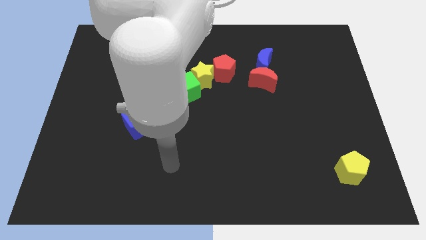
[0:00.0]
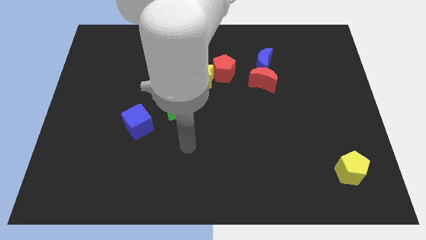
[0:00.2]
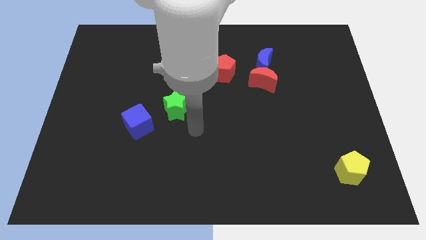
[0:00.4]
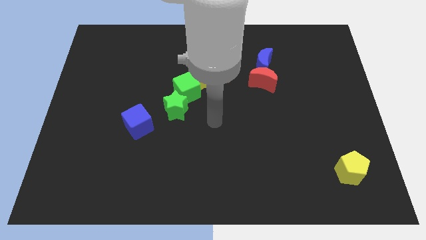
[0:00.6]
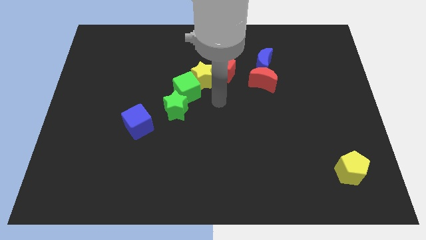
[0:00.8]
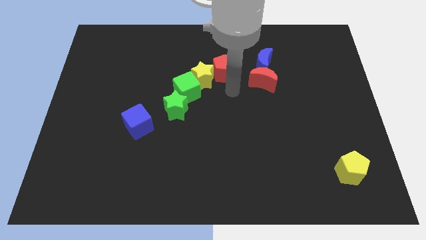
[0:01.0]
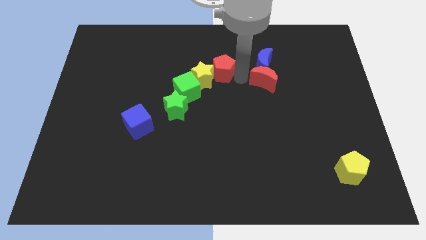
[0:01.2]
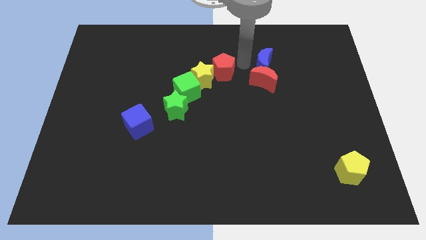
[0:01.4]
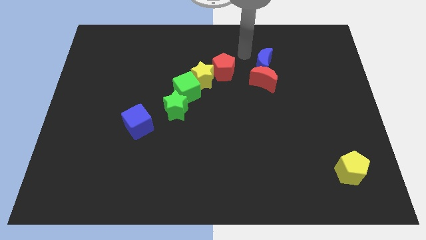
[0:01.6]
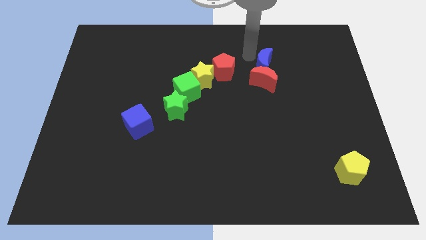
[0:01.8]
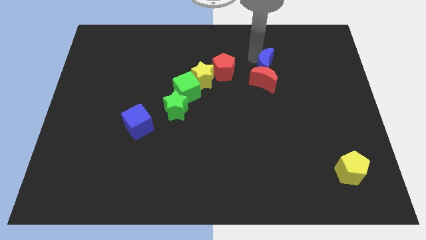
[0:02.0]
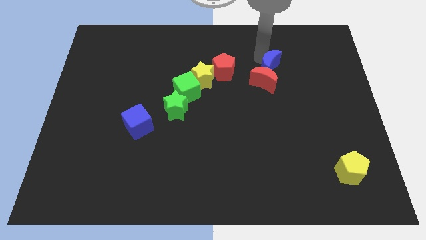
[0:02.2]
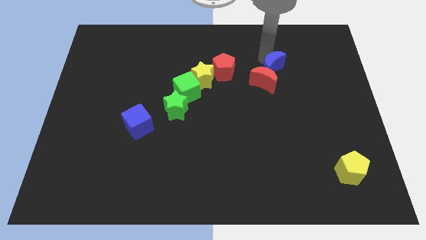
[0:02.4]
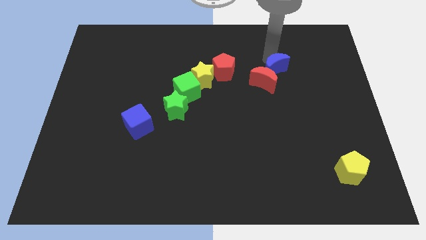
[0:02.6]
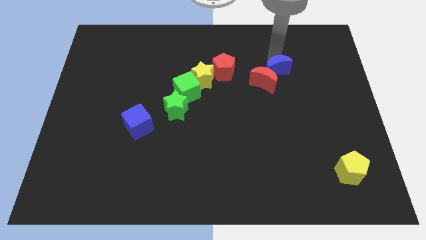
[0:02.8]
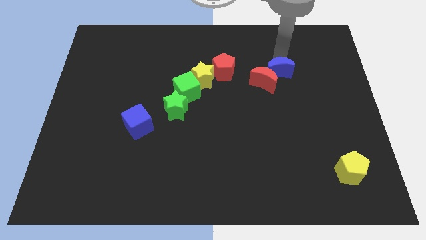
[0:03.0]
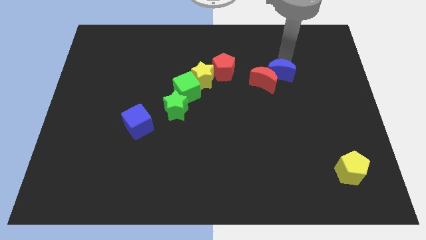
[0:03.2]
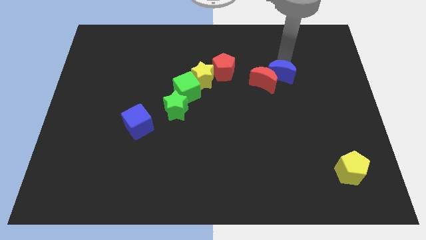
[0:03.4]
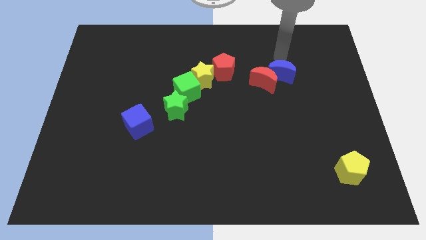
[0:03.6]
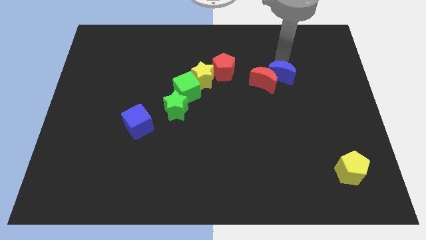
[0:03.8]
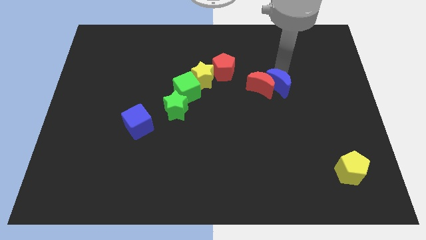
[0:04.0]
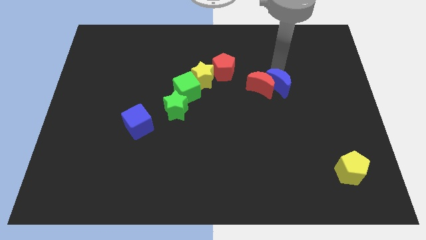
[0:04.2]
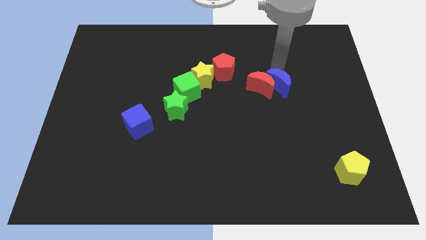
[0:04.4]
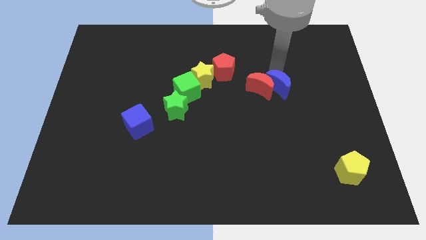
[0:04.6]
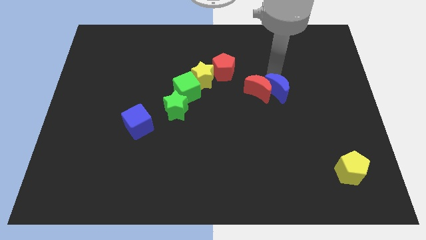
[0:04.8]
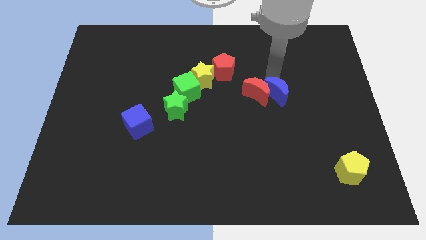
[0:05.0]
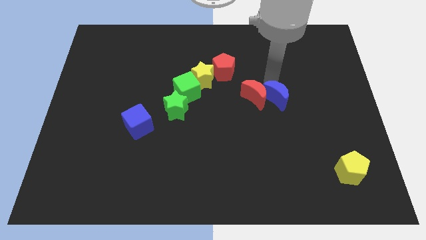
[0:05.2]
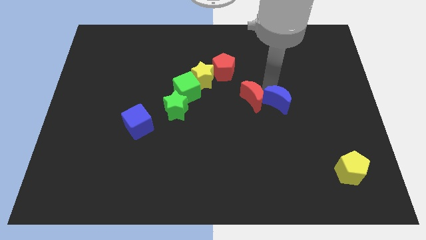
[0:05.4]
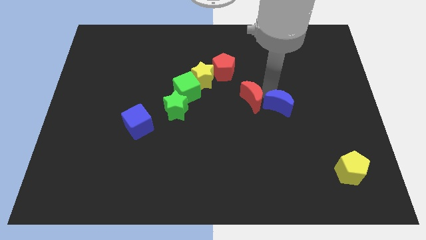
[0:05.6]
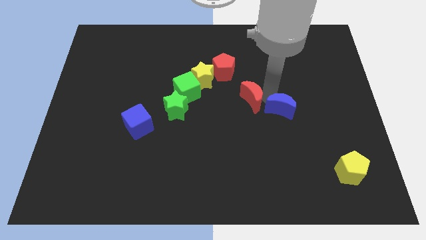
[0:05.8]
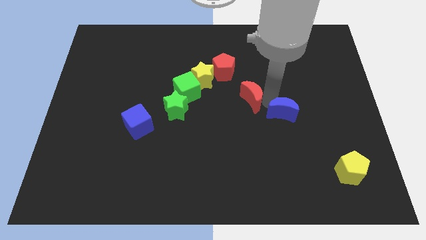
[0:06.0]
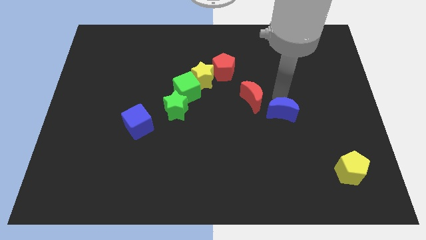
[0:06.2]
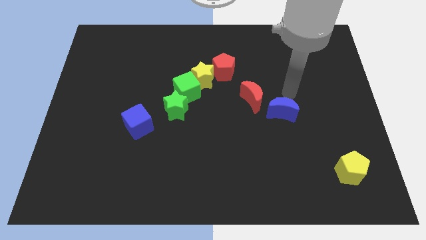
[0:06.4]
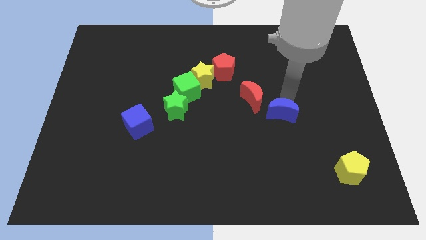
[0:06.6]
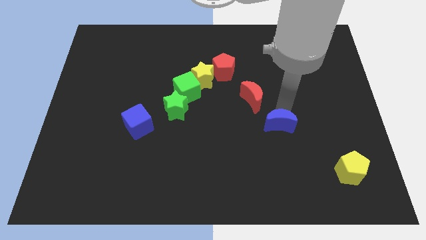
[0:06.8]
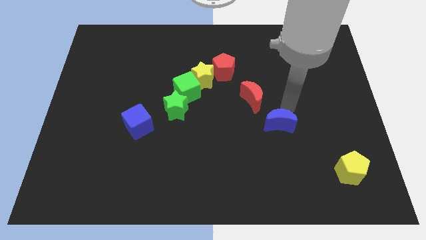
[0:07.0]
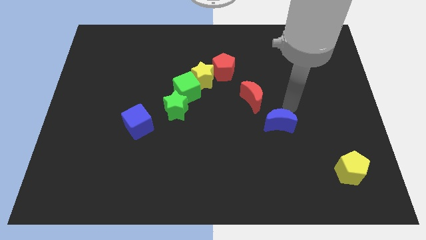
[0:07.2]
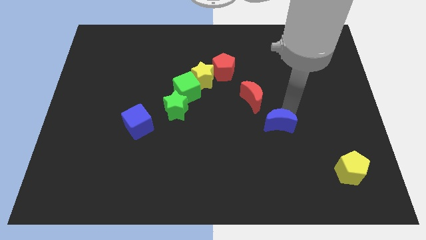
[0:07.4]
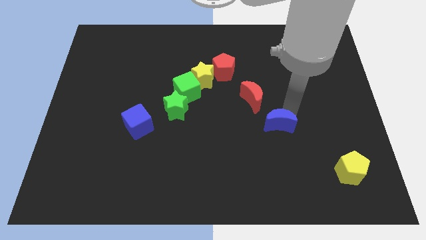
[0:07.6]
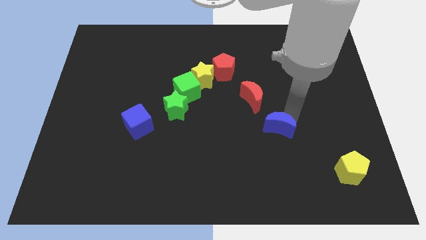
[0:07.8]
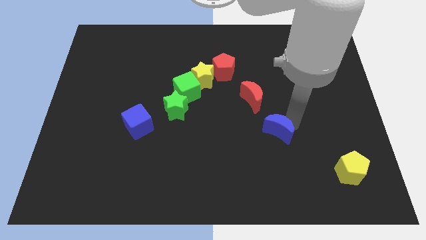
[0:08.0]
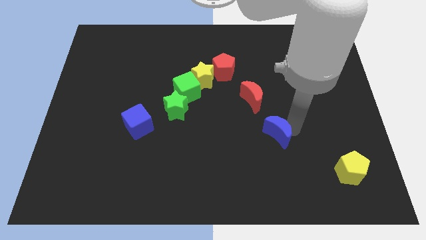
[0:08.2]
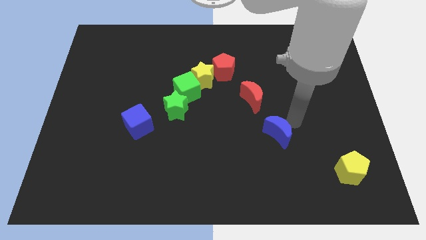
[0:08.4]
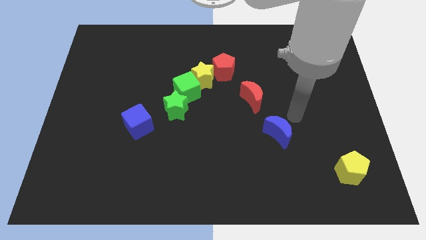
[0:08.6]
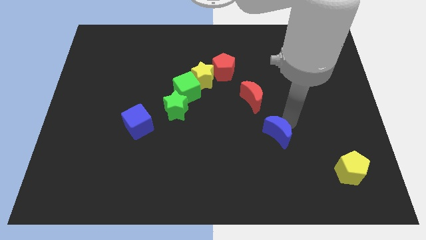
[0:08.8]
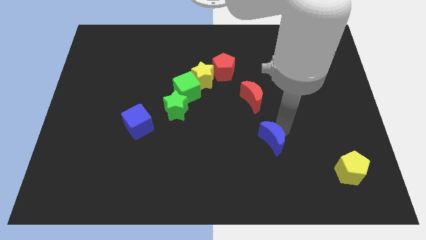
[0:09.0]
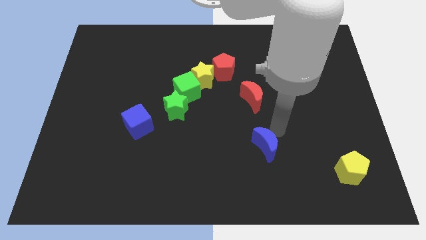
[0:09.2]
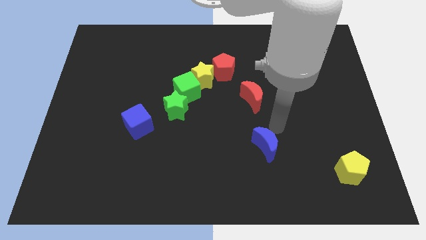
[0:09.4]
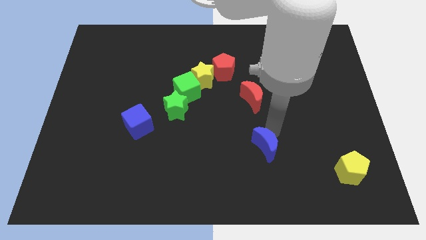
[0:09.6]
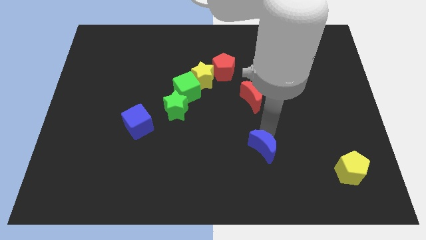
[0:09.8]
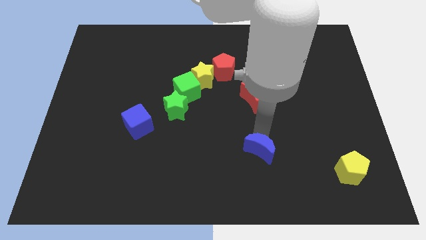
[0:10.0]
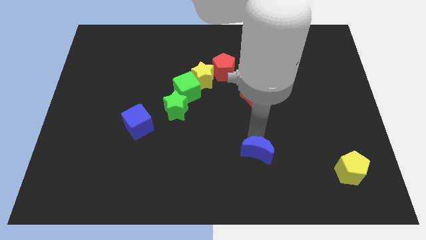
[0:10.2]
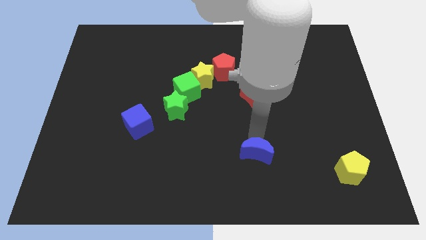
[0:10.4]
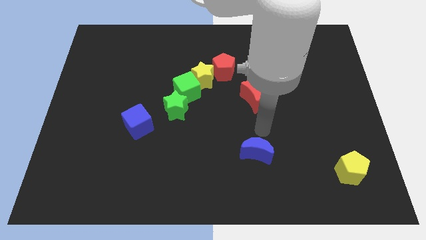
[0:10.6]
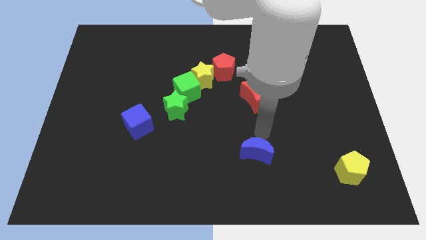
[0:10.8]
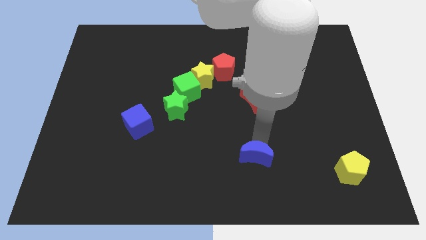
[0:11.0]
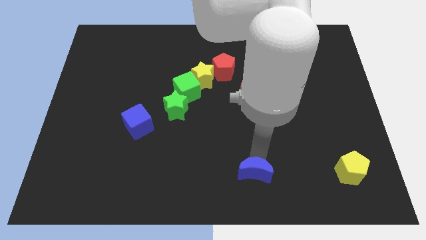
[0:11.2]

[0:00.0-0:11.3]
slide the blue moon to the bottom

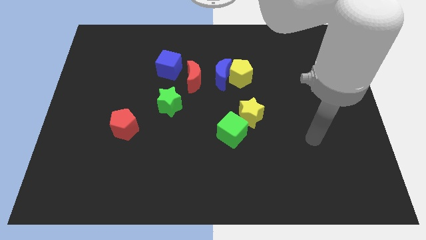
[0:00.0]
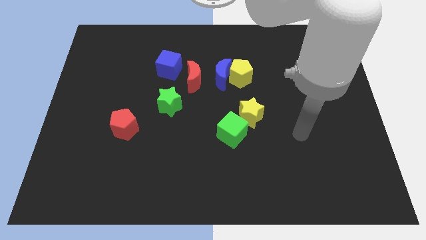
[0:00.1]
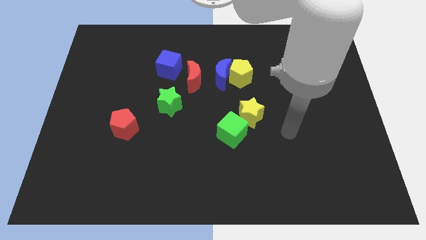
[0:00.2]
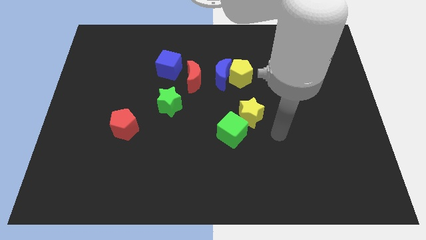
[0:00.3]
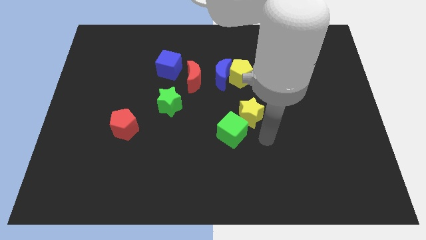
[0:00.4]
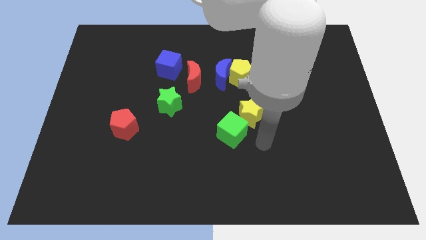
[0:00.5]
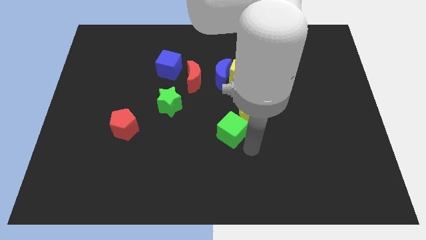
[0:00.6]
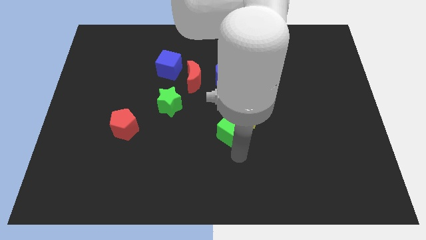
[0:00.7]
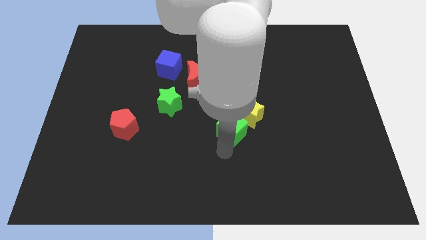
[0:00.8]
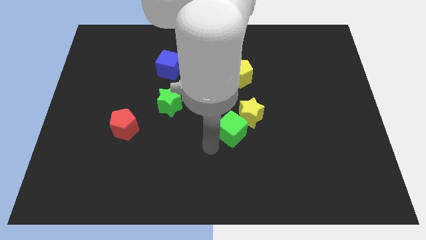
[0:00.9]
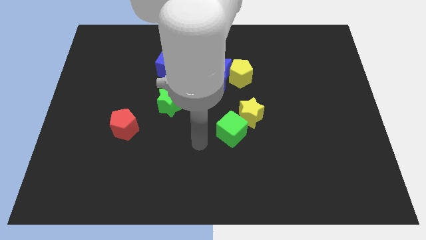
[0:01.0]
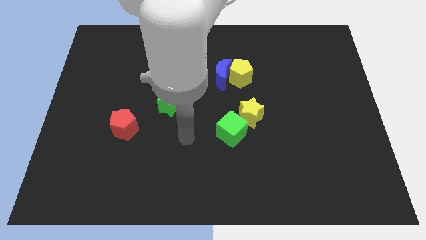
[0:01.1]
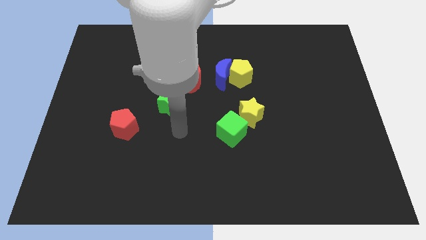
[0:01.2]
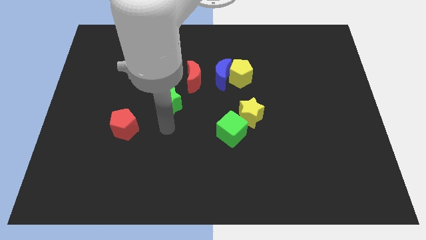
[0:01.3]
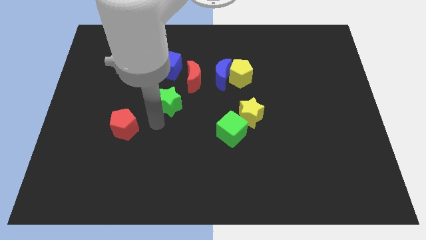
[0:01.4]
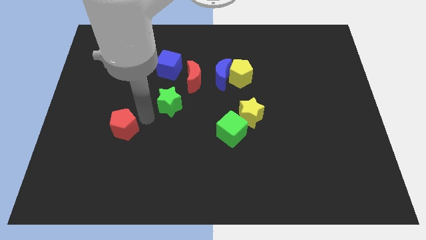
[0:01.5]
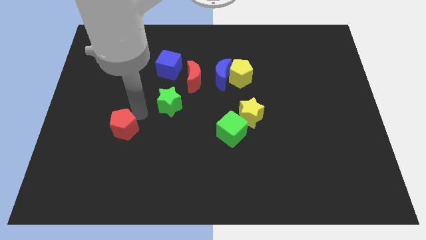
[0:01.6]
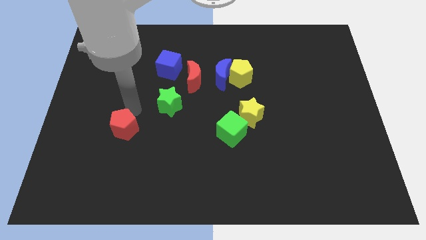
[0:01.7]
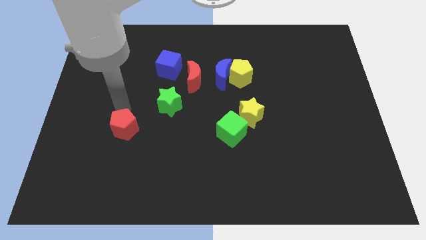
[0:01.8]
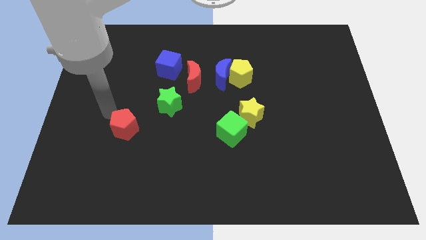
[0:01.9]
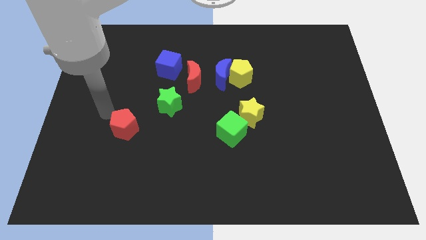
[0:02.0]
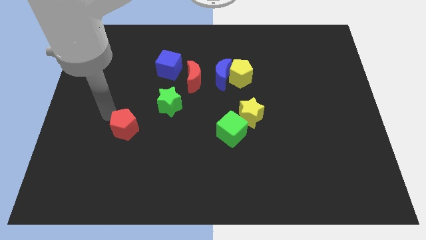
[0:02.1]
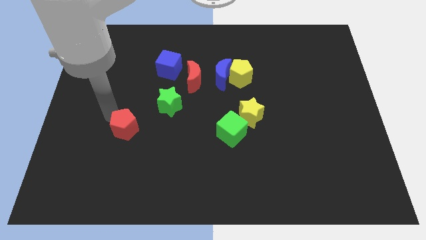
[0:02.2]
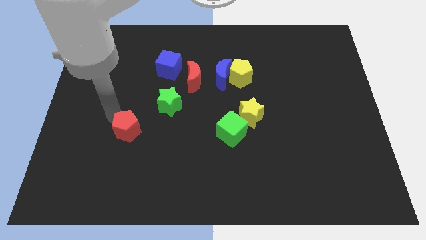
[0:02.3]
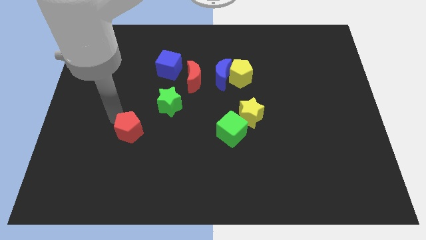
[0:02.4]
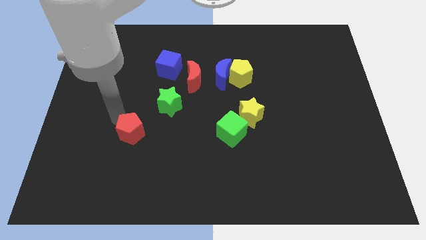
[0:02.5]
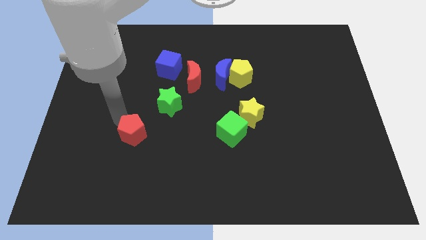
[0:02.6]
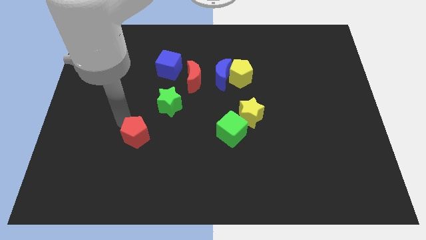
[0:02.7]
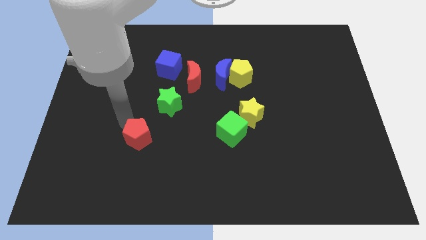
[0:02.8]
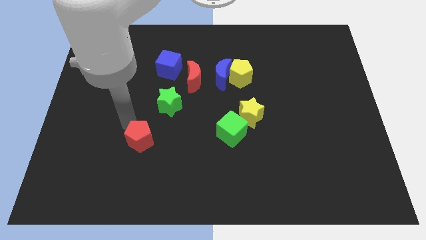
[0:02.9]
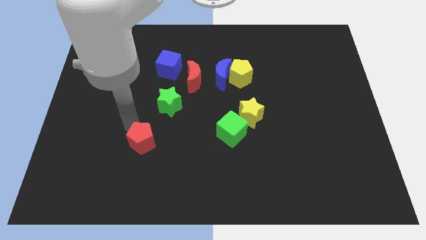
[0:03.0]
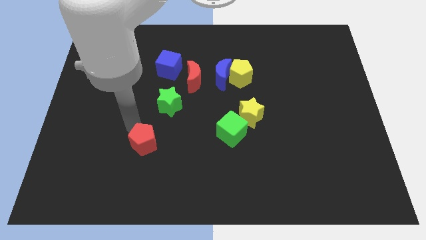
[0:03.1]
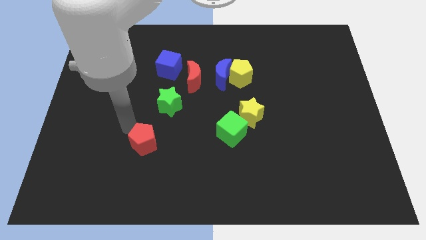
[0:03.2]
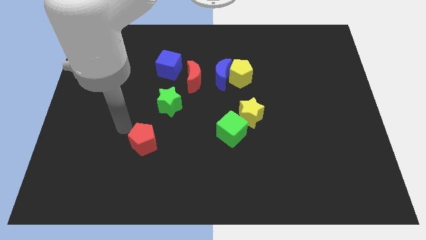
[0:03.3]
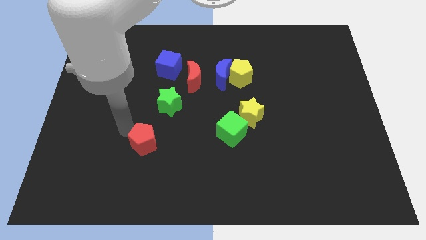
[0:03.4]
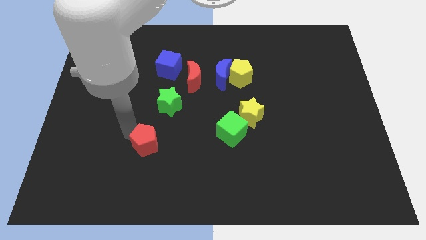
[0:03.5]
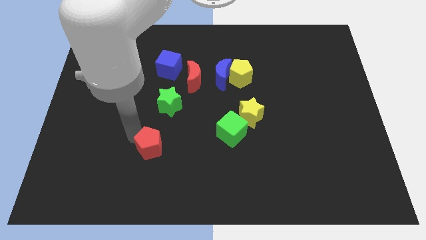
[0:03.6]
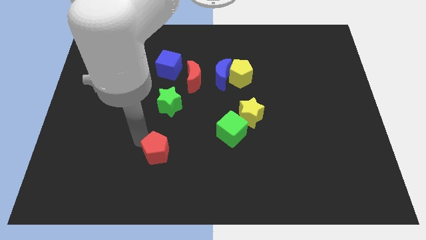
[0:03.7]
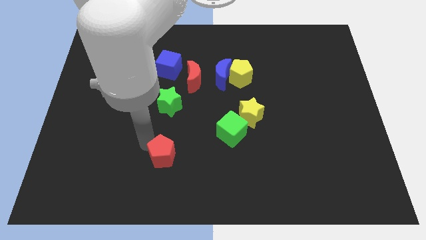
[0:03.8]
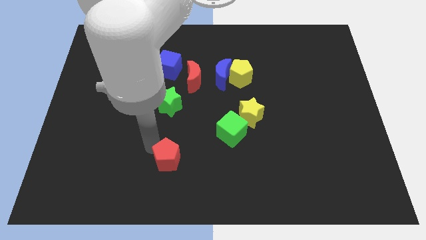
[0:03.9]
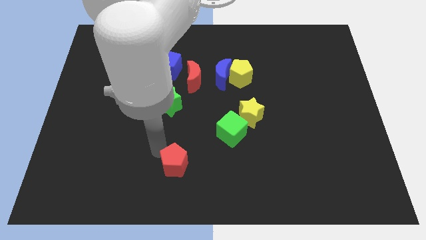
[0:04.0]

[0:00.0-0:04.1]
move the red pentagon to the bottom
